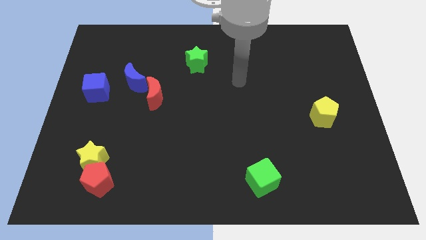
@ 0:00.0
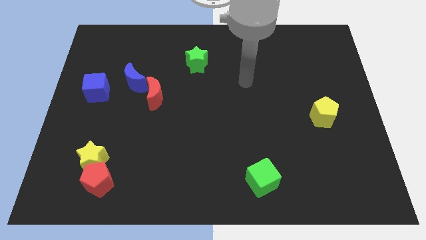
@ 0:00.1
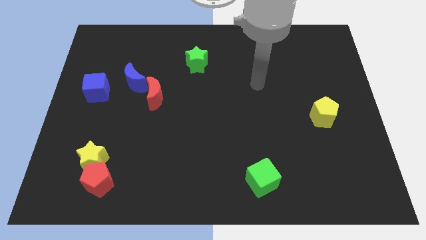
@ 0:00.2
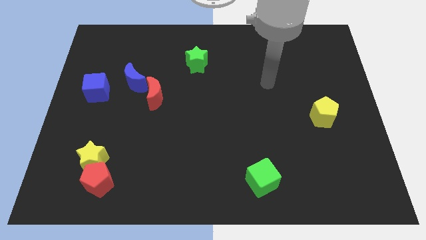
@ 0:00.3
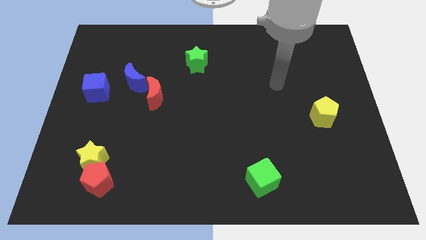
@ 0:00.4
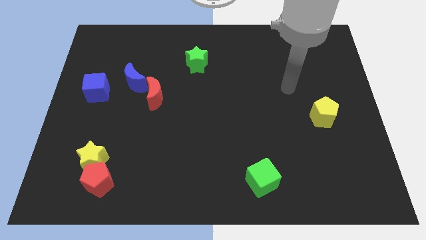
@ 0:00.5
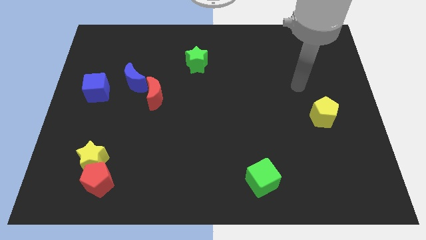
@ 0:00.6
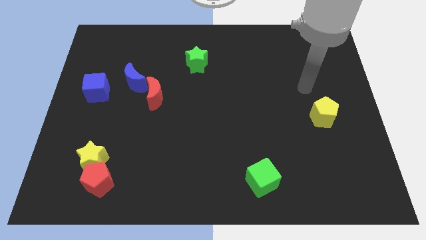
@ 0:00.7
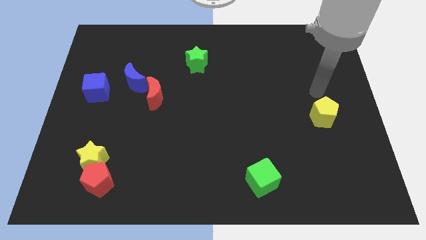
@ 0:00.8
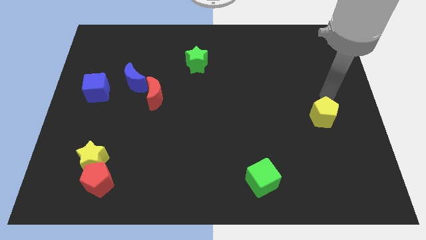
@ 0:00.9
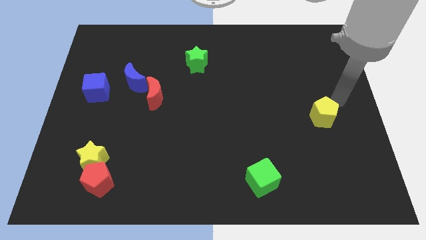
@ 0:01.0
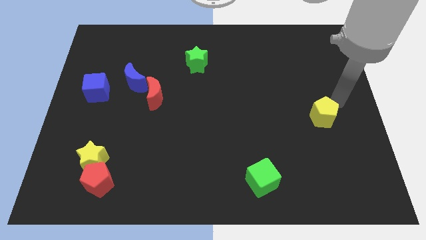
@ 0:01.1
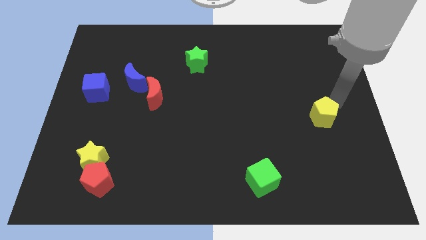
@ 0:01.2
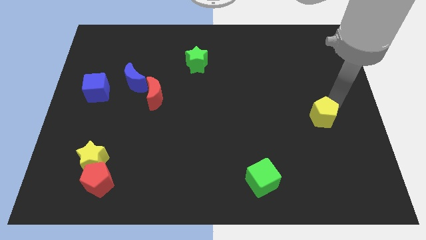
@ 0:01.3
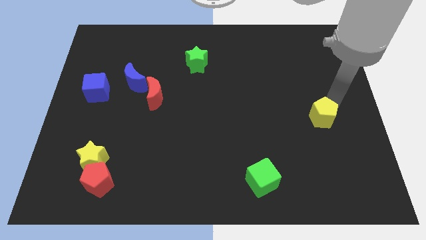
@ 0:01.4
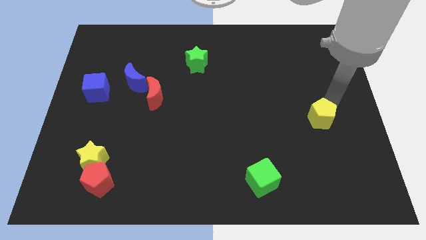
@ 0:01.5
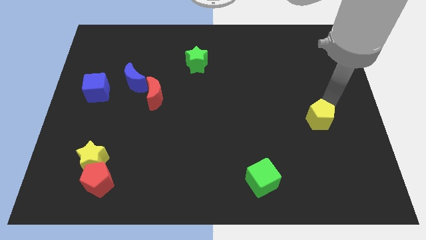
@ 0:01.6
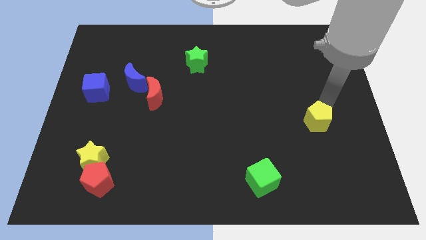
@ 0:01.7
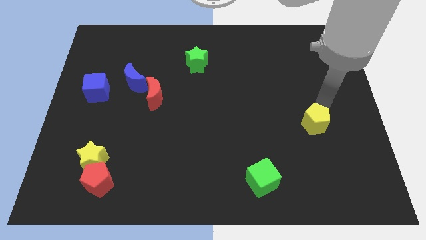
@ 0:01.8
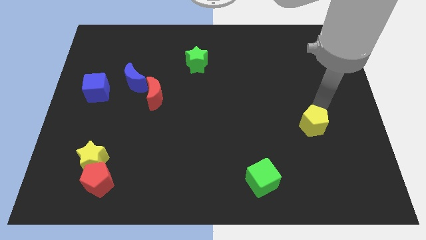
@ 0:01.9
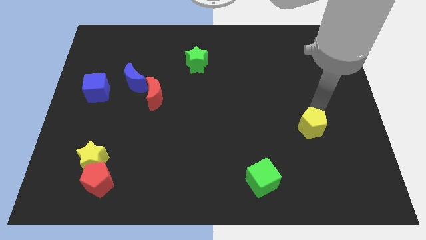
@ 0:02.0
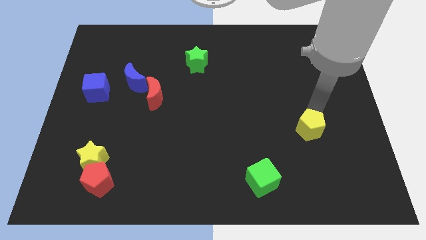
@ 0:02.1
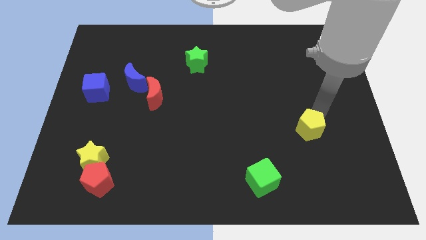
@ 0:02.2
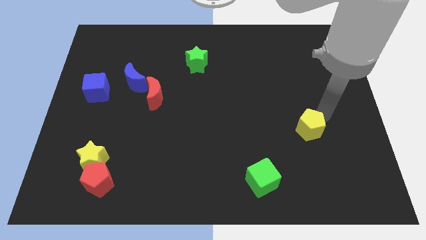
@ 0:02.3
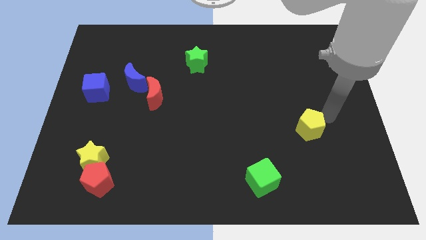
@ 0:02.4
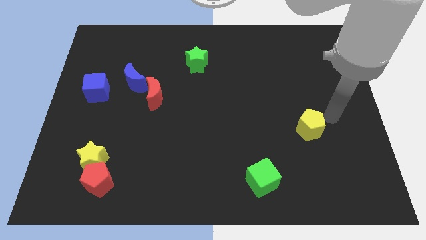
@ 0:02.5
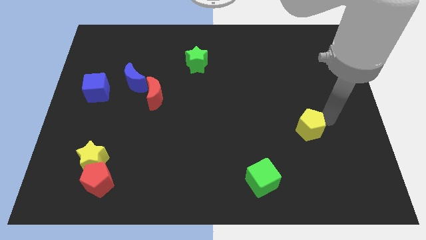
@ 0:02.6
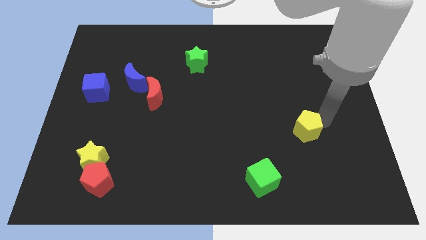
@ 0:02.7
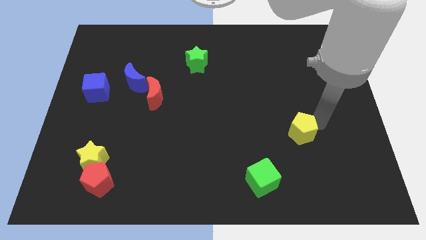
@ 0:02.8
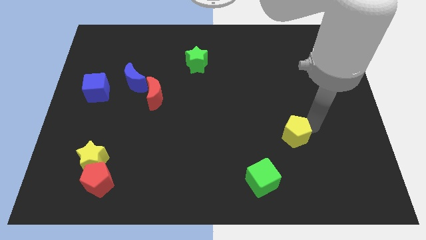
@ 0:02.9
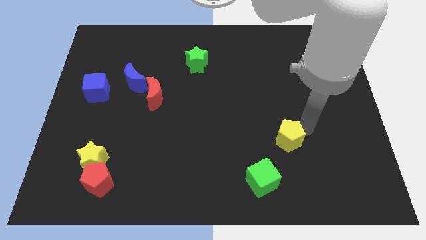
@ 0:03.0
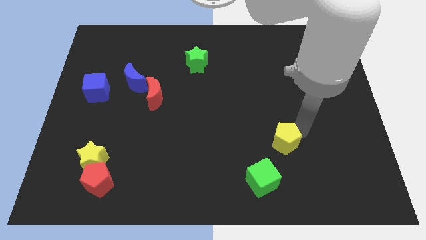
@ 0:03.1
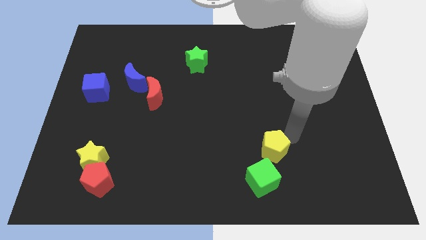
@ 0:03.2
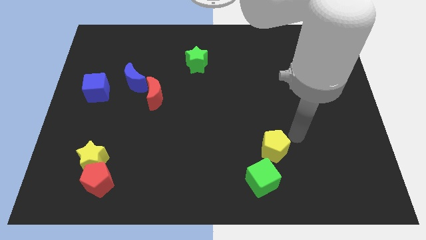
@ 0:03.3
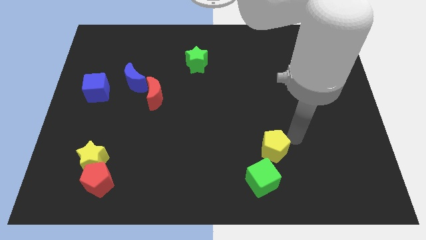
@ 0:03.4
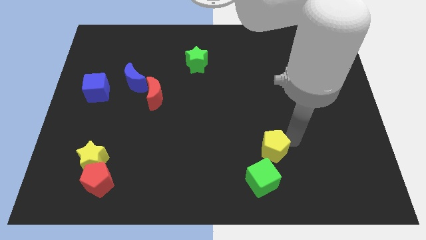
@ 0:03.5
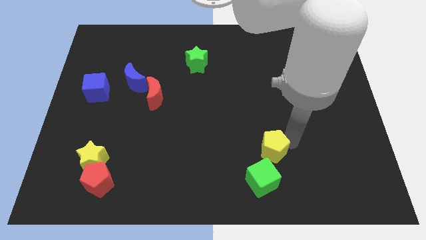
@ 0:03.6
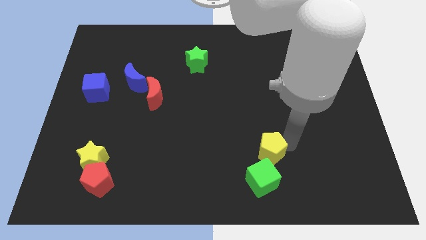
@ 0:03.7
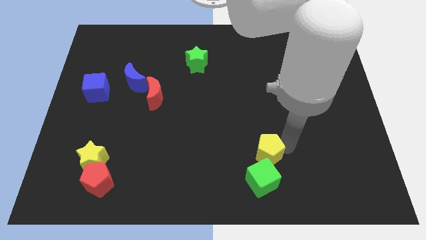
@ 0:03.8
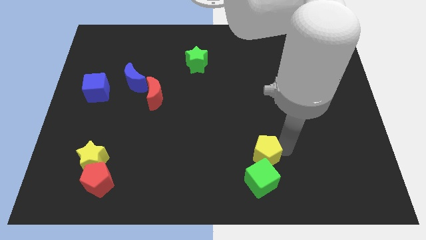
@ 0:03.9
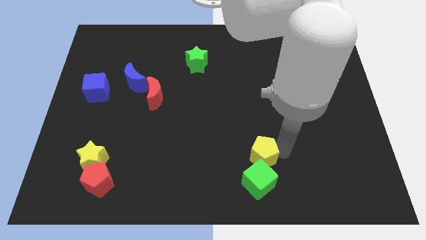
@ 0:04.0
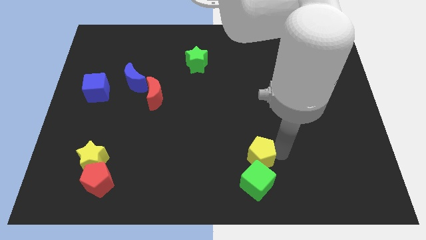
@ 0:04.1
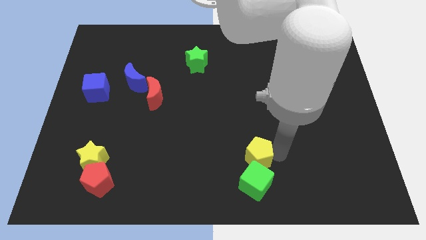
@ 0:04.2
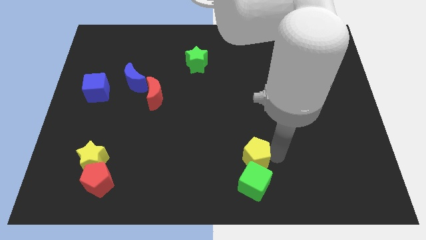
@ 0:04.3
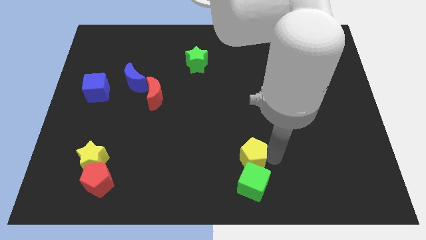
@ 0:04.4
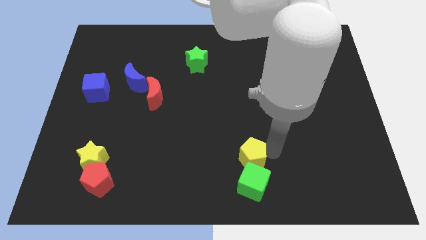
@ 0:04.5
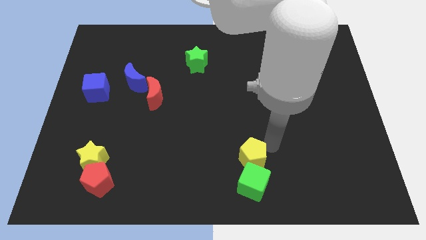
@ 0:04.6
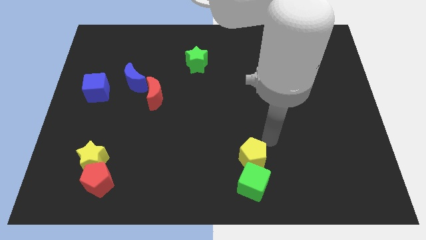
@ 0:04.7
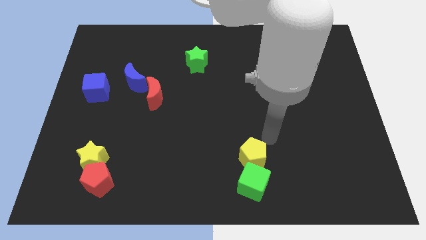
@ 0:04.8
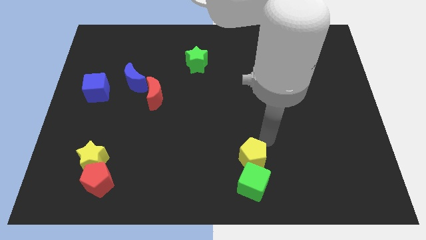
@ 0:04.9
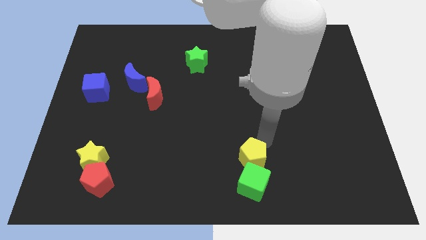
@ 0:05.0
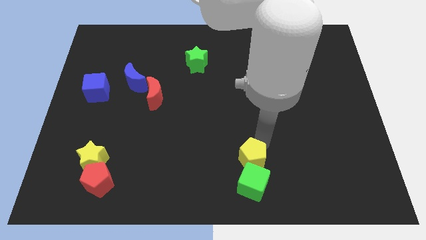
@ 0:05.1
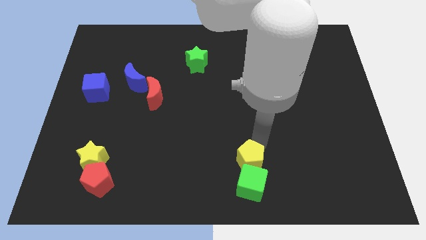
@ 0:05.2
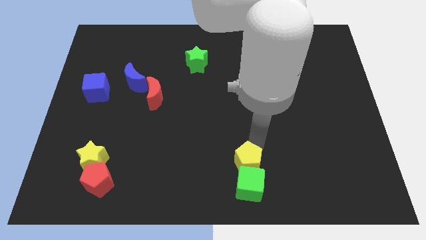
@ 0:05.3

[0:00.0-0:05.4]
push the yellow pentagon to the bottom side

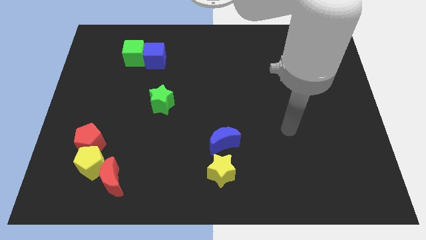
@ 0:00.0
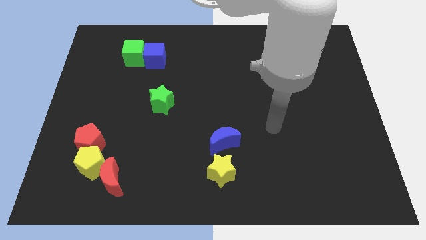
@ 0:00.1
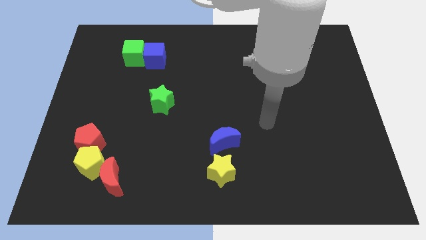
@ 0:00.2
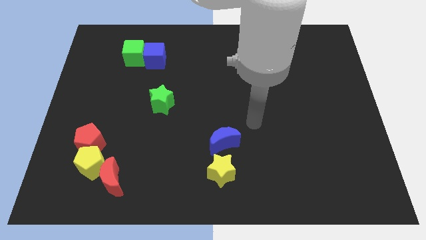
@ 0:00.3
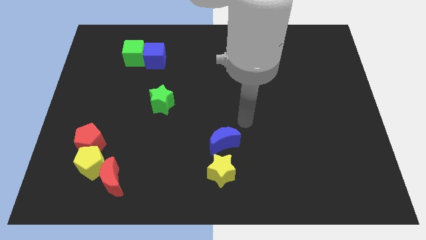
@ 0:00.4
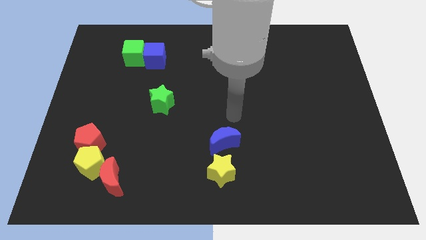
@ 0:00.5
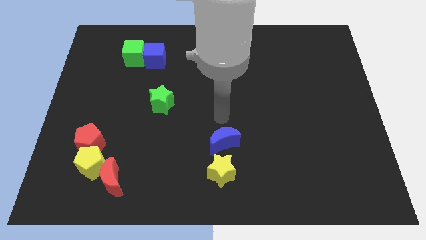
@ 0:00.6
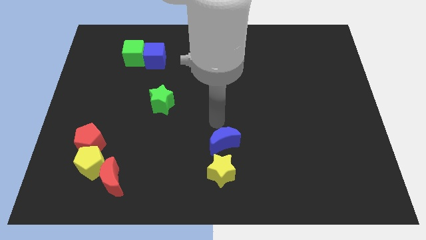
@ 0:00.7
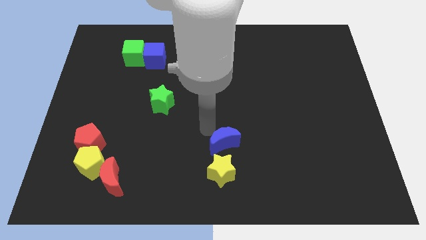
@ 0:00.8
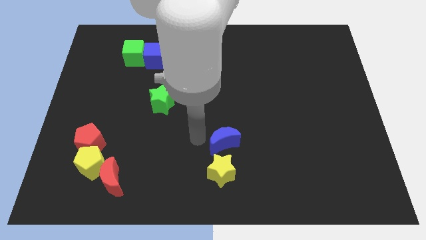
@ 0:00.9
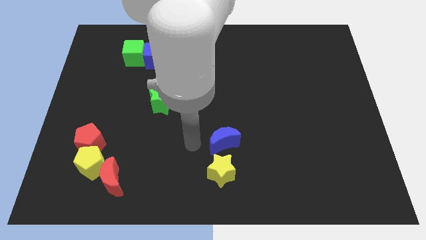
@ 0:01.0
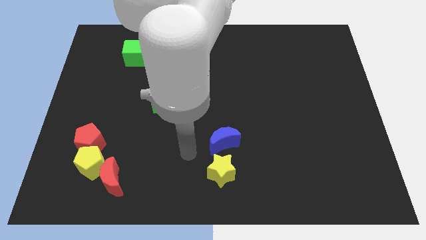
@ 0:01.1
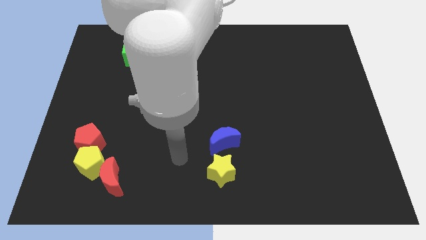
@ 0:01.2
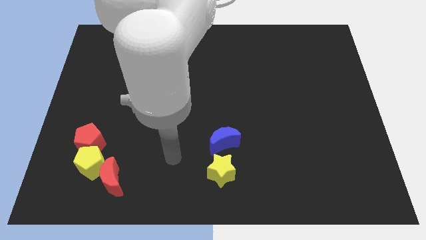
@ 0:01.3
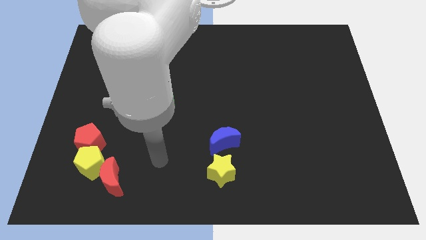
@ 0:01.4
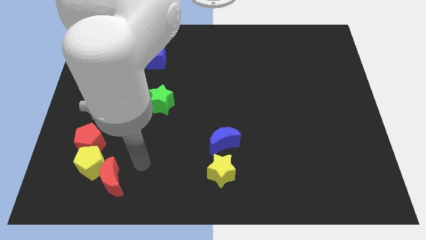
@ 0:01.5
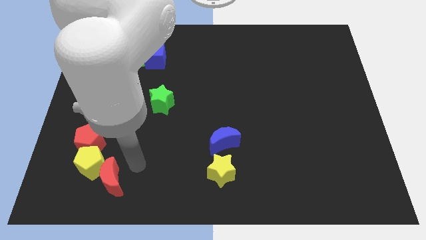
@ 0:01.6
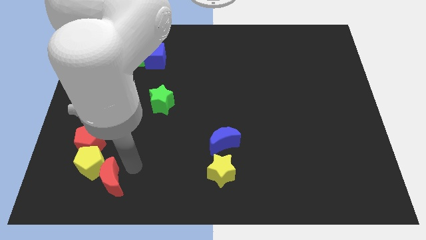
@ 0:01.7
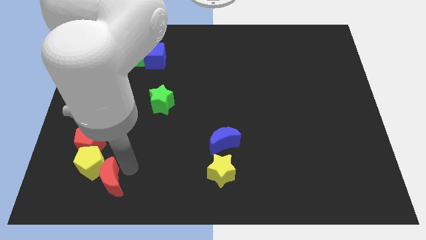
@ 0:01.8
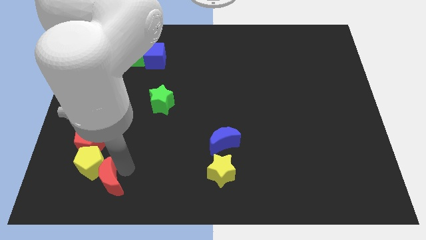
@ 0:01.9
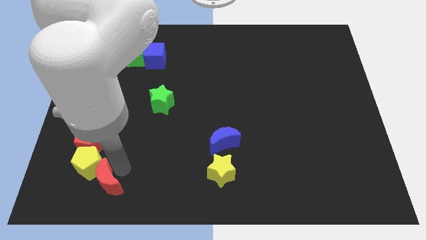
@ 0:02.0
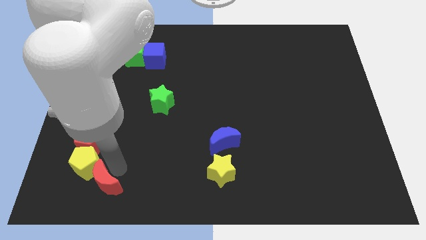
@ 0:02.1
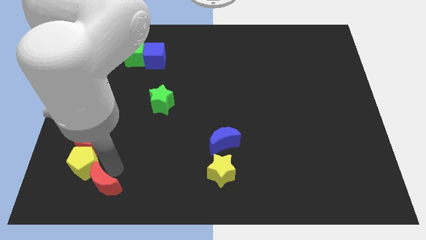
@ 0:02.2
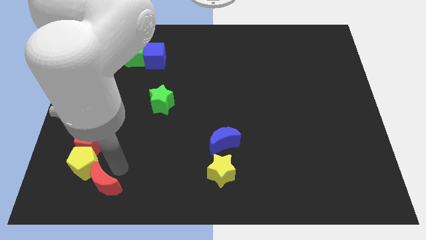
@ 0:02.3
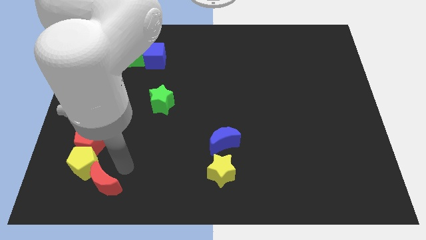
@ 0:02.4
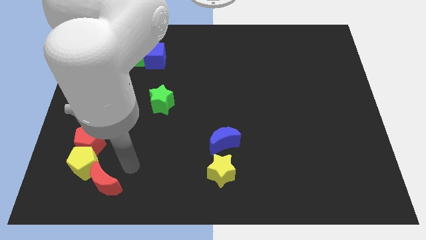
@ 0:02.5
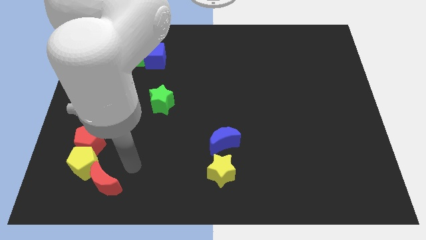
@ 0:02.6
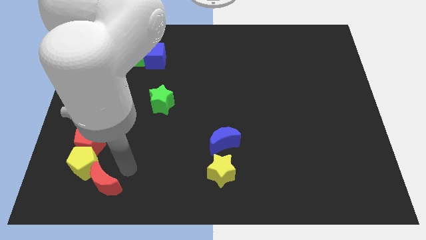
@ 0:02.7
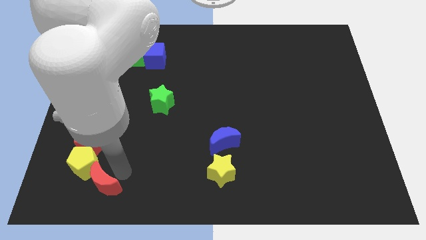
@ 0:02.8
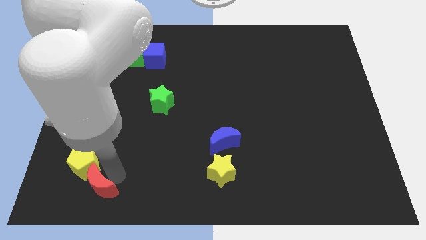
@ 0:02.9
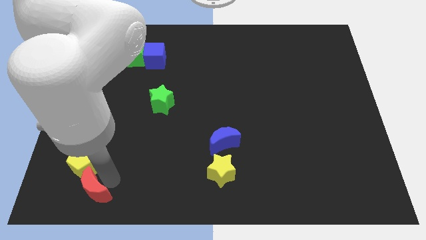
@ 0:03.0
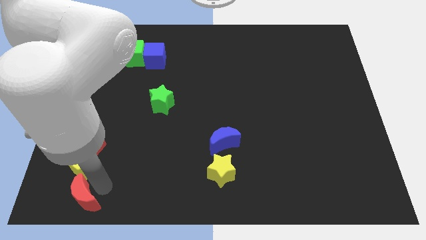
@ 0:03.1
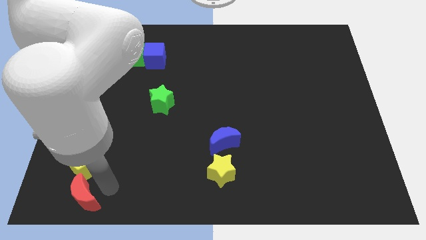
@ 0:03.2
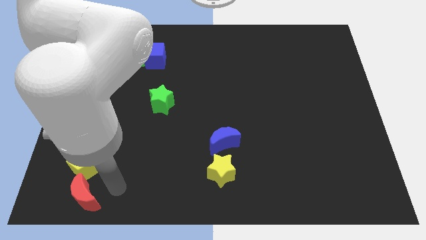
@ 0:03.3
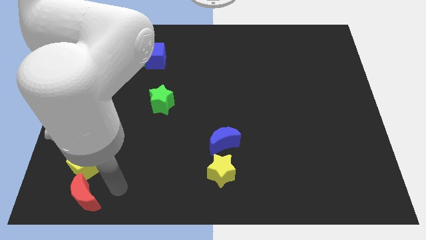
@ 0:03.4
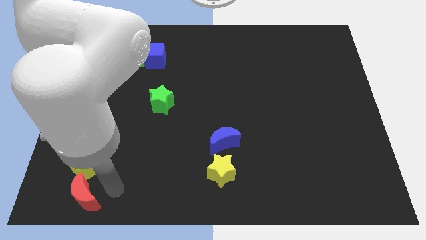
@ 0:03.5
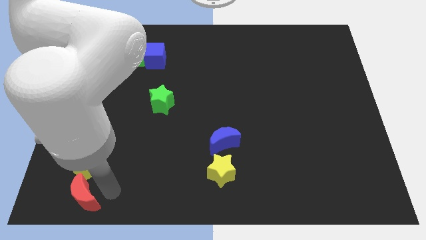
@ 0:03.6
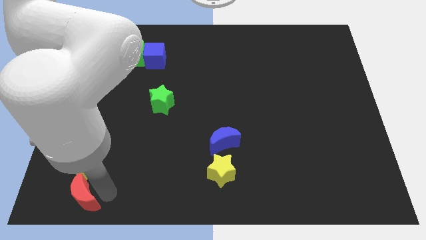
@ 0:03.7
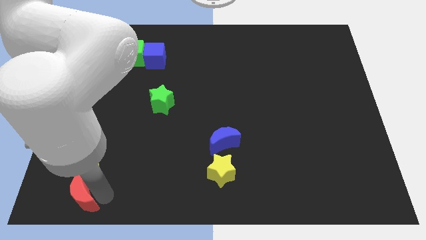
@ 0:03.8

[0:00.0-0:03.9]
move the red moon to the bottom left of the board
